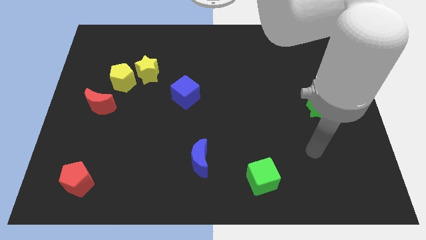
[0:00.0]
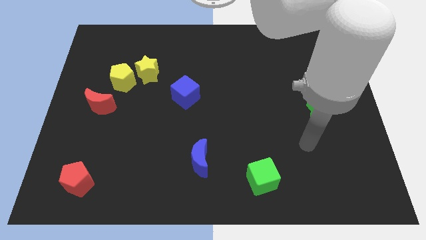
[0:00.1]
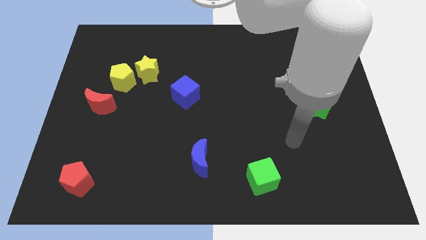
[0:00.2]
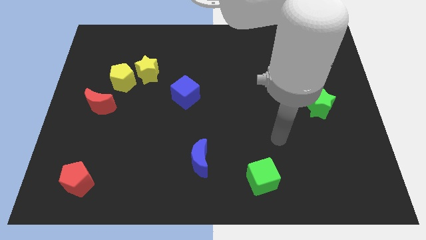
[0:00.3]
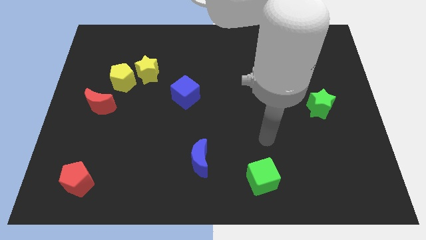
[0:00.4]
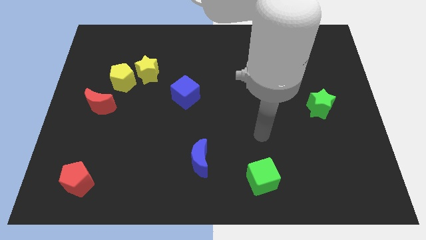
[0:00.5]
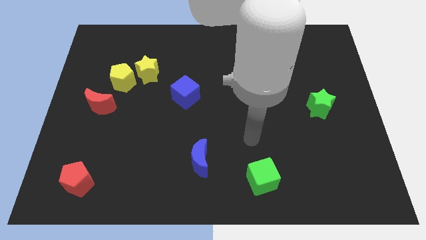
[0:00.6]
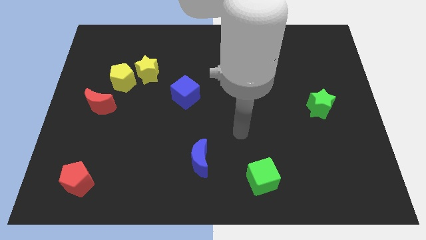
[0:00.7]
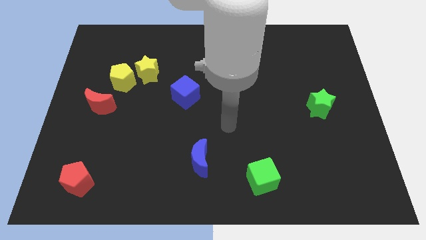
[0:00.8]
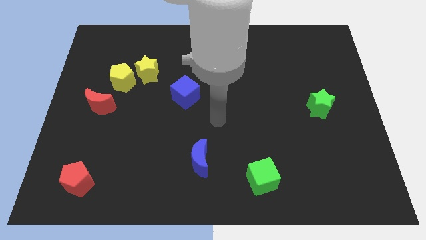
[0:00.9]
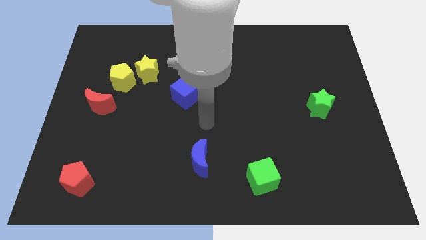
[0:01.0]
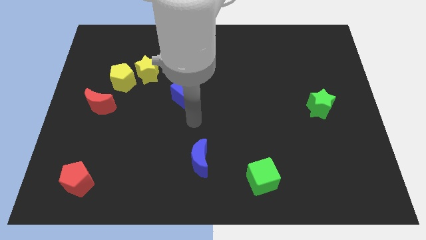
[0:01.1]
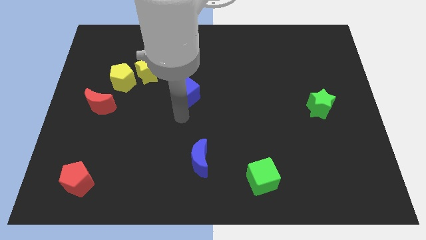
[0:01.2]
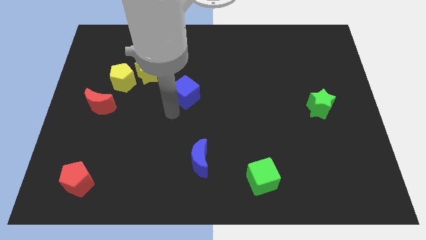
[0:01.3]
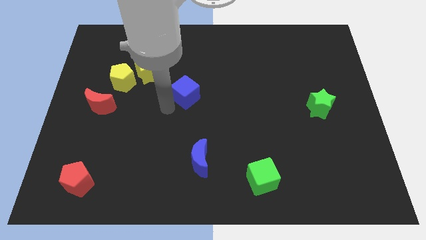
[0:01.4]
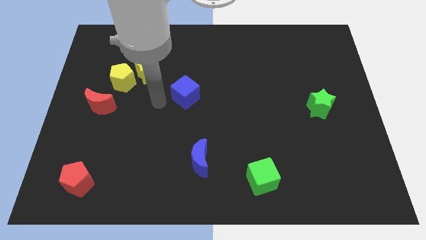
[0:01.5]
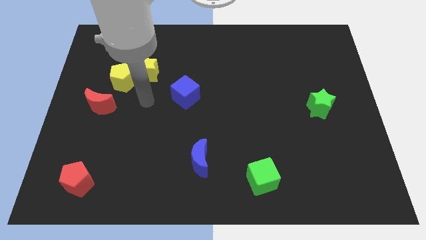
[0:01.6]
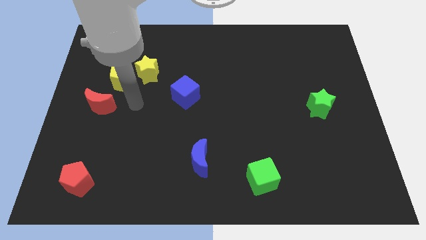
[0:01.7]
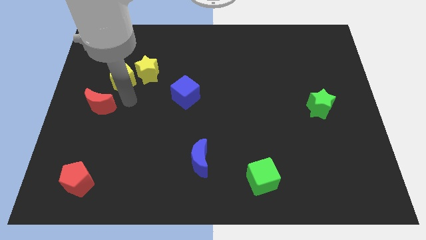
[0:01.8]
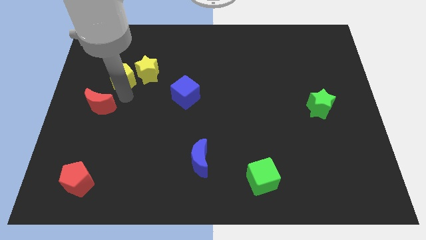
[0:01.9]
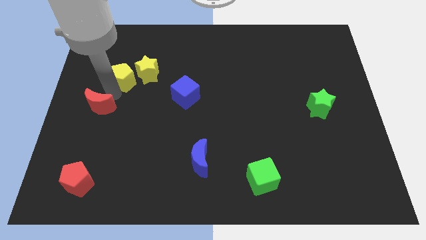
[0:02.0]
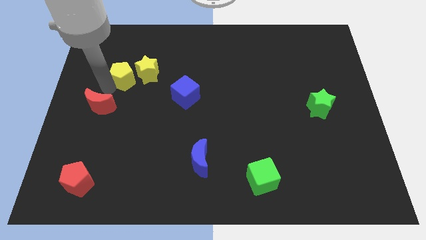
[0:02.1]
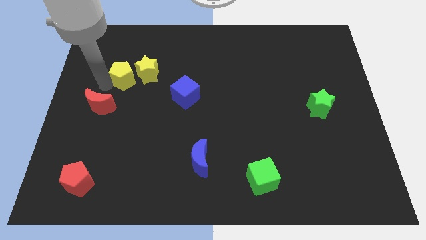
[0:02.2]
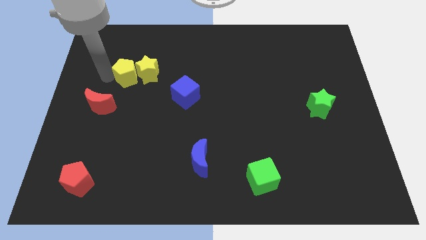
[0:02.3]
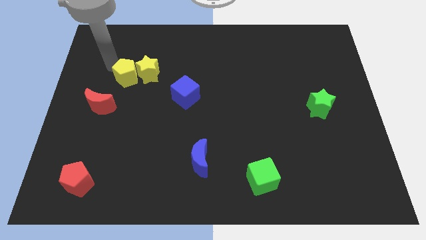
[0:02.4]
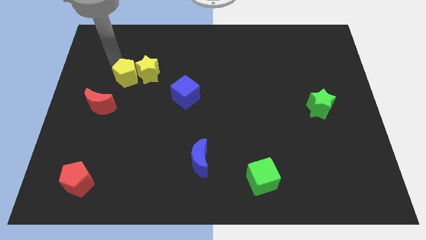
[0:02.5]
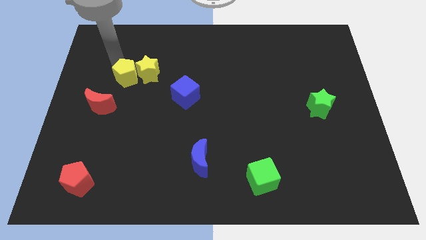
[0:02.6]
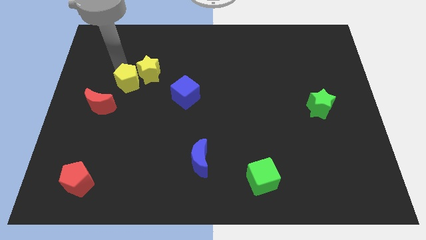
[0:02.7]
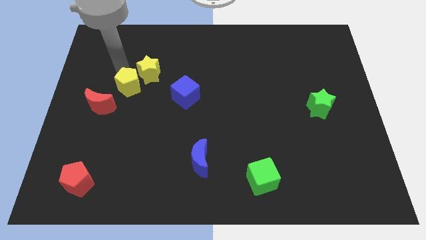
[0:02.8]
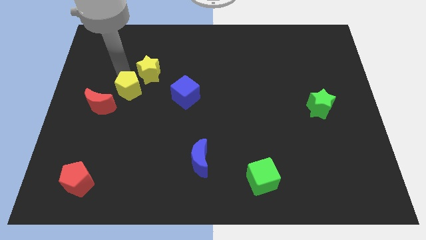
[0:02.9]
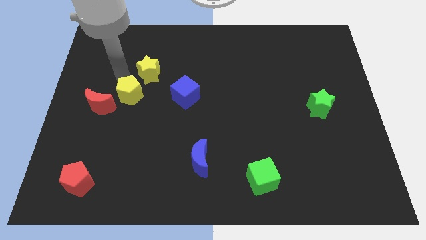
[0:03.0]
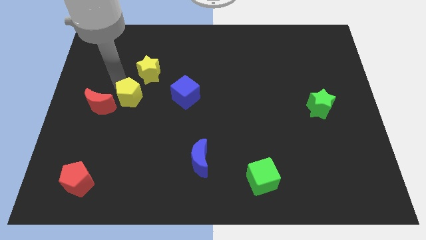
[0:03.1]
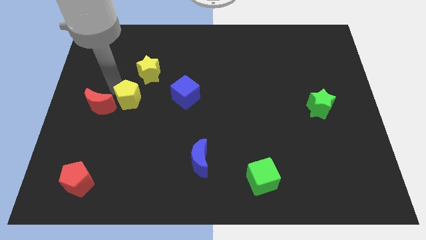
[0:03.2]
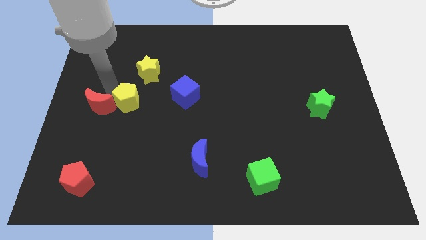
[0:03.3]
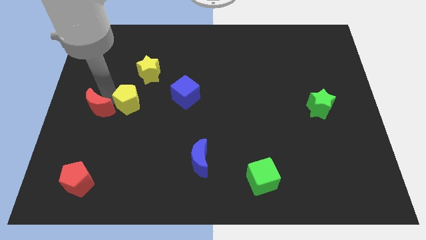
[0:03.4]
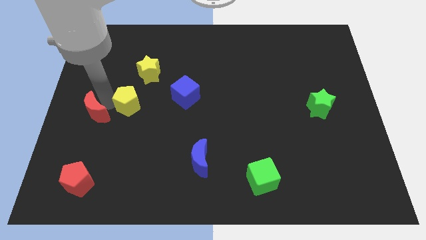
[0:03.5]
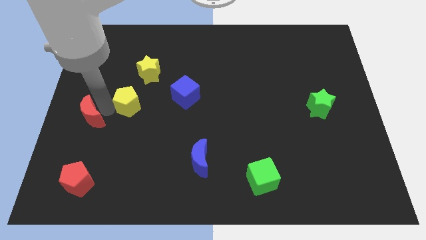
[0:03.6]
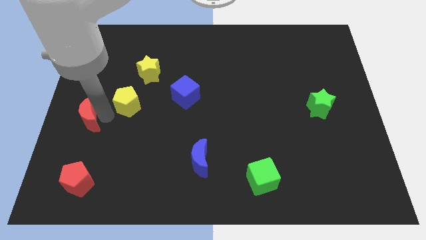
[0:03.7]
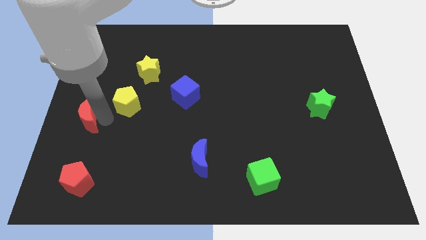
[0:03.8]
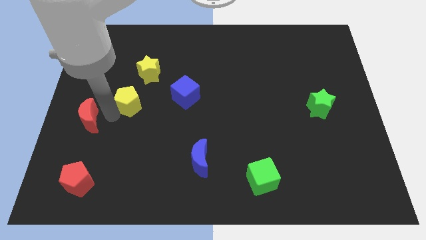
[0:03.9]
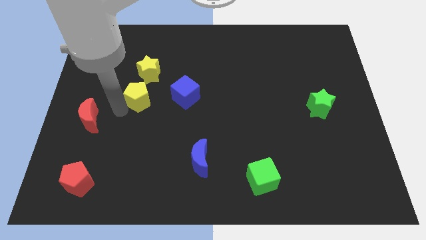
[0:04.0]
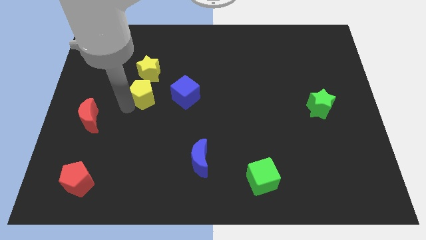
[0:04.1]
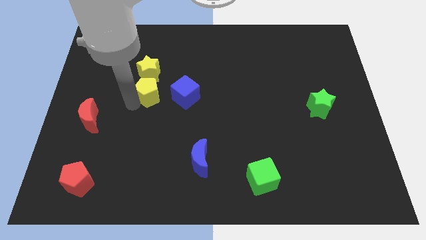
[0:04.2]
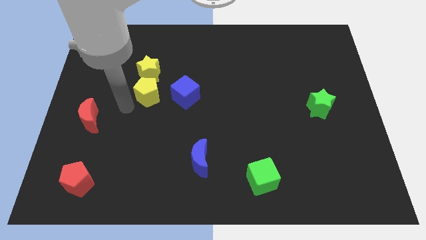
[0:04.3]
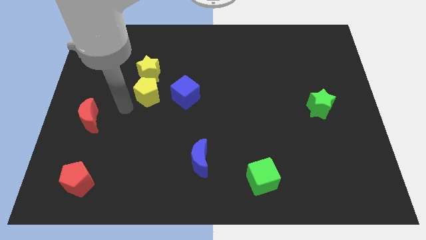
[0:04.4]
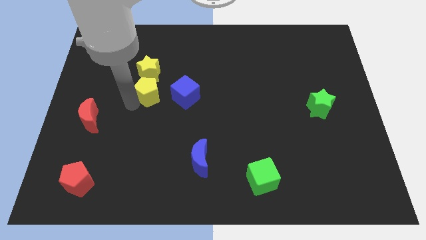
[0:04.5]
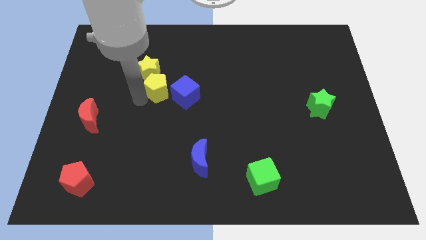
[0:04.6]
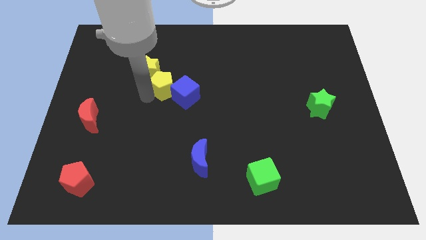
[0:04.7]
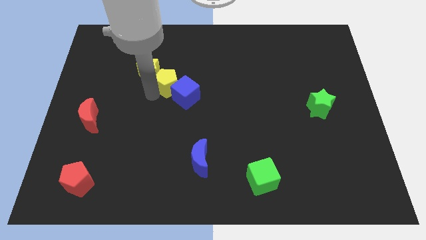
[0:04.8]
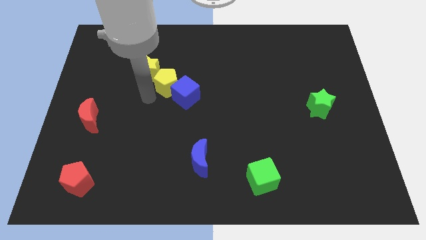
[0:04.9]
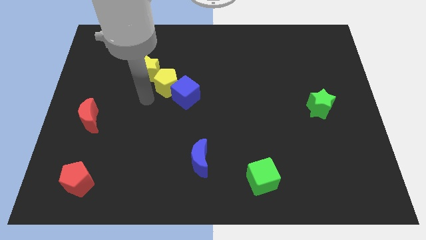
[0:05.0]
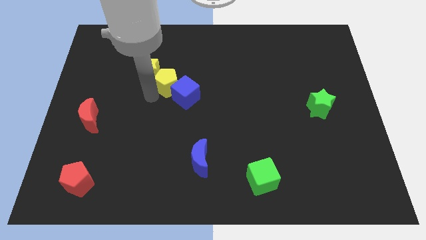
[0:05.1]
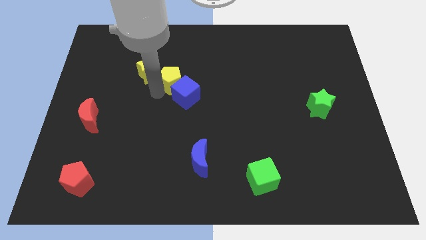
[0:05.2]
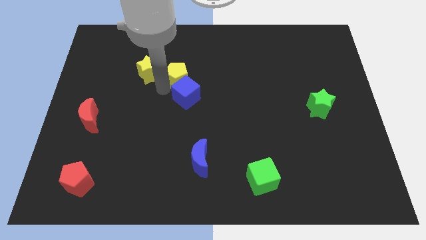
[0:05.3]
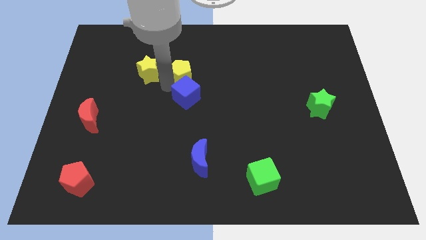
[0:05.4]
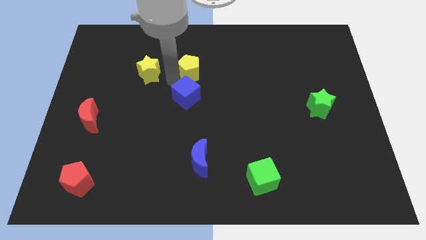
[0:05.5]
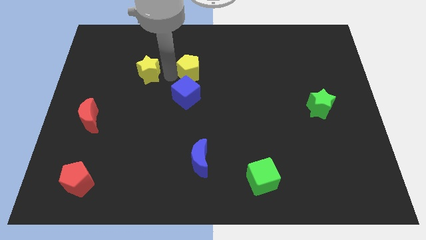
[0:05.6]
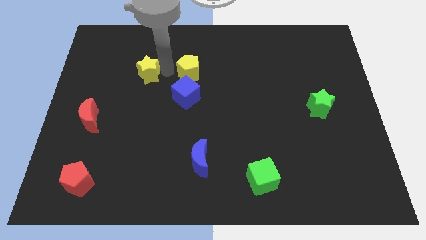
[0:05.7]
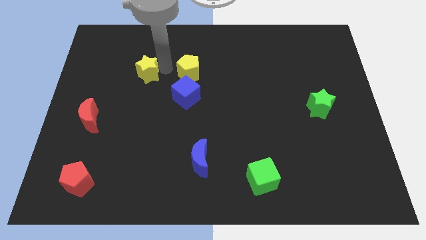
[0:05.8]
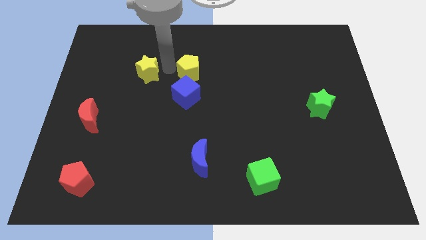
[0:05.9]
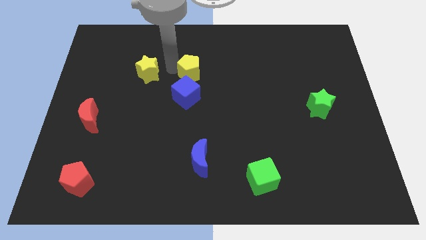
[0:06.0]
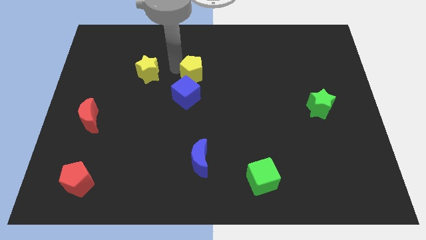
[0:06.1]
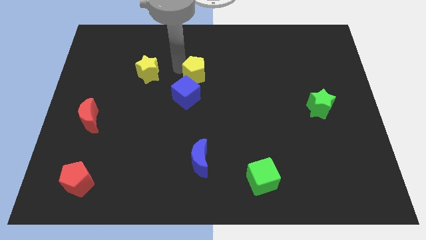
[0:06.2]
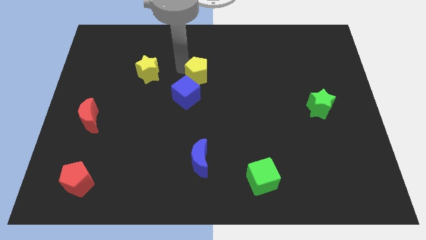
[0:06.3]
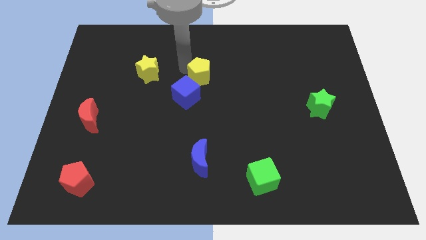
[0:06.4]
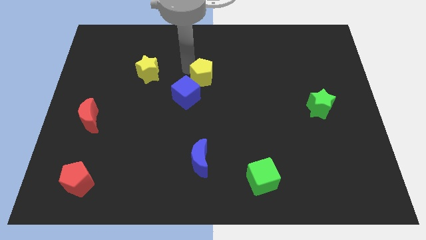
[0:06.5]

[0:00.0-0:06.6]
move the yellow pentagon to the right

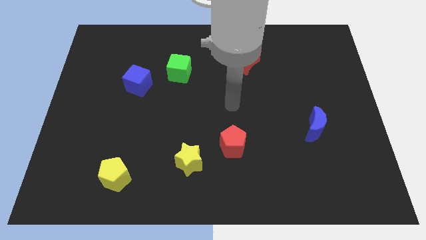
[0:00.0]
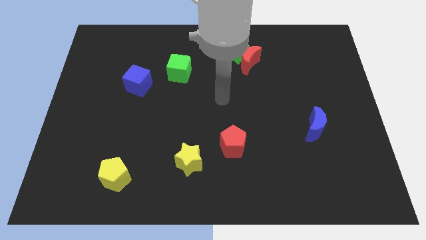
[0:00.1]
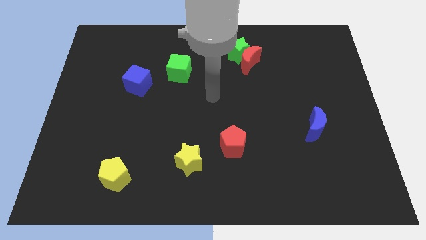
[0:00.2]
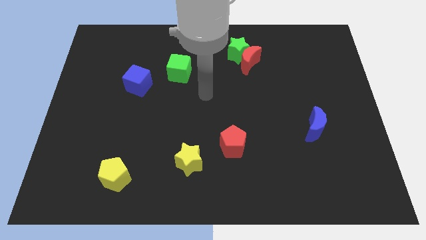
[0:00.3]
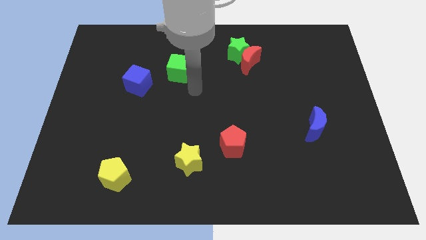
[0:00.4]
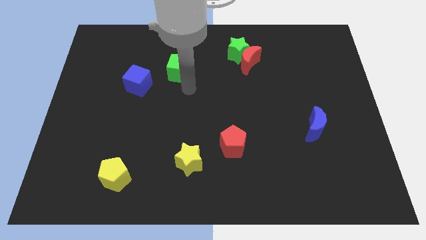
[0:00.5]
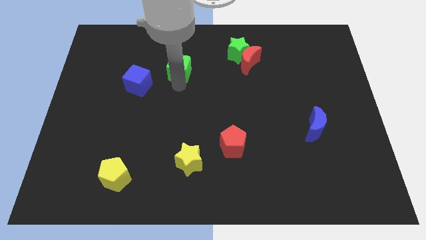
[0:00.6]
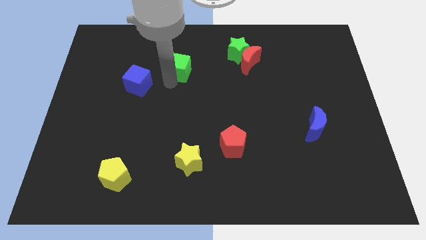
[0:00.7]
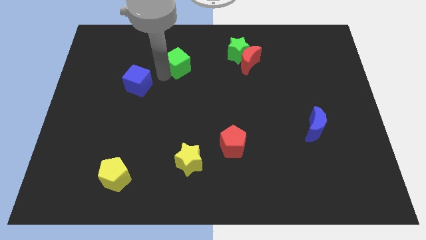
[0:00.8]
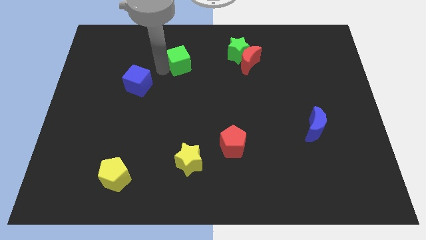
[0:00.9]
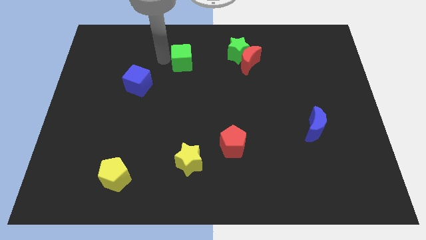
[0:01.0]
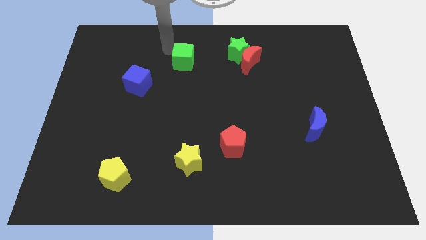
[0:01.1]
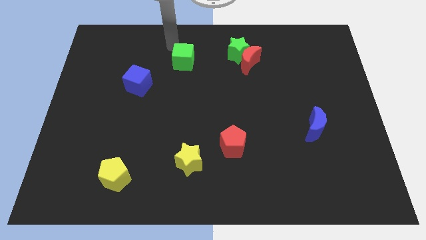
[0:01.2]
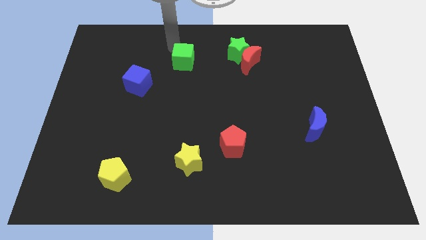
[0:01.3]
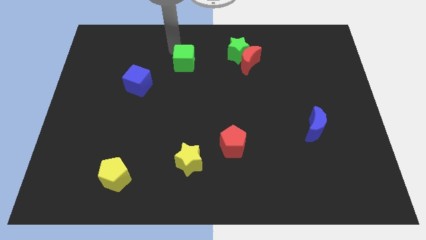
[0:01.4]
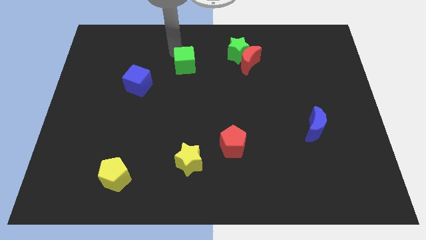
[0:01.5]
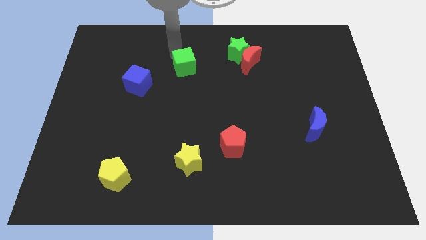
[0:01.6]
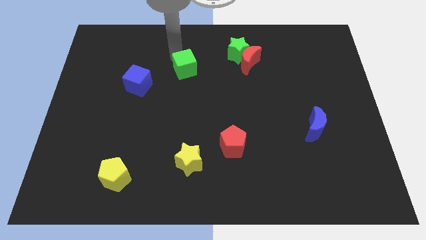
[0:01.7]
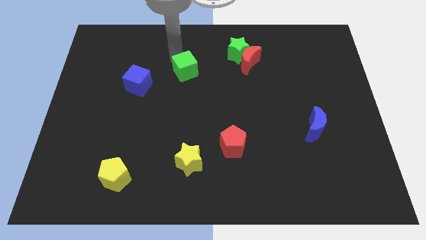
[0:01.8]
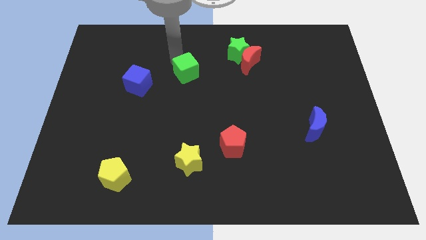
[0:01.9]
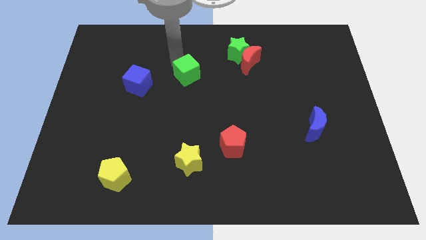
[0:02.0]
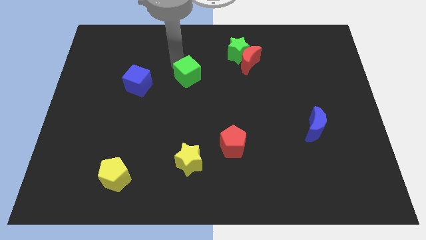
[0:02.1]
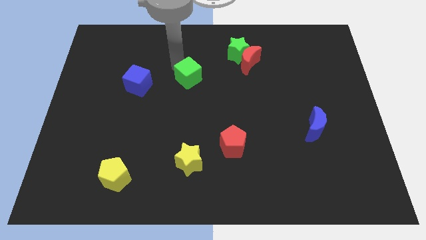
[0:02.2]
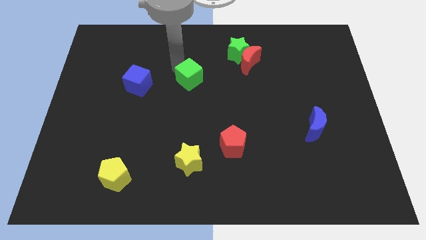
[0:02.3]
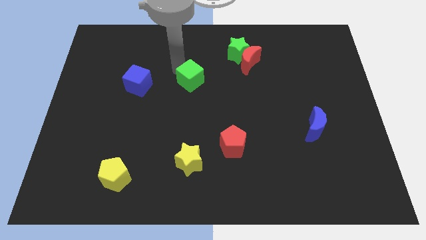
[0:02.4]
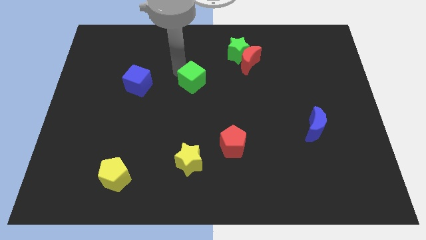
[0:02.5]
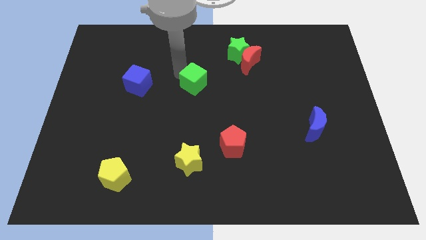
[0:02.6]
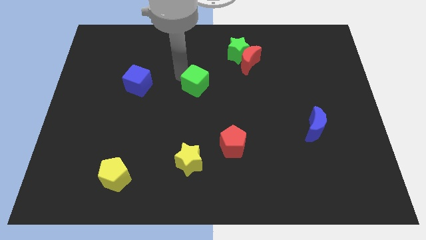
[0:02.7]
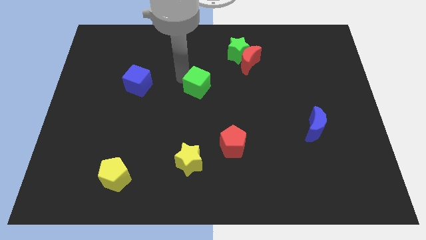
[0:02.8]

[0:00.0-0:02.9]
push the green cube down and to the right diagonally a little
